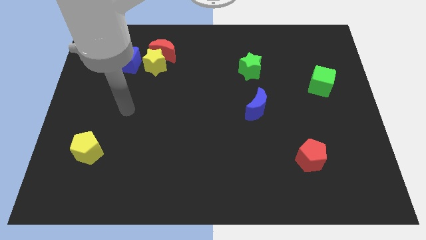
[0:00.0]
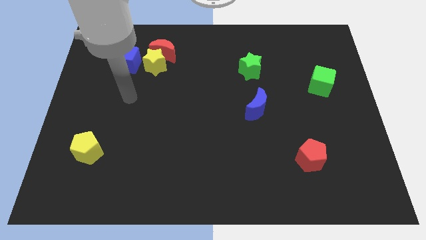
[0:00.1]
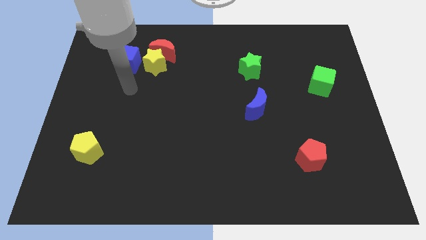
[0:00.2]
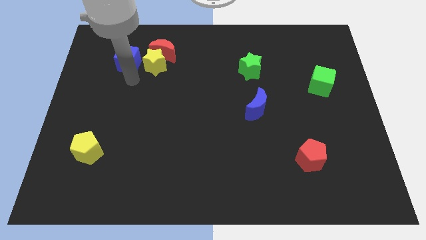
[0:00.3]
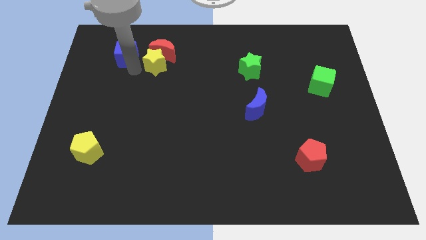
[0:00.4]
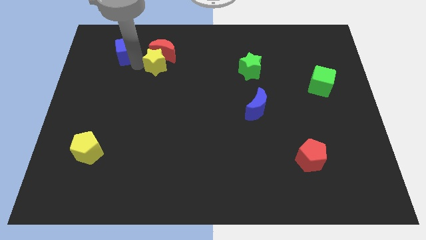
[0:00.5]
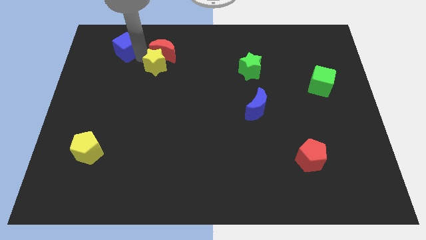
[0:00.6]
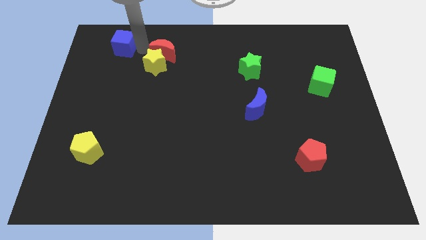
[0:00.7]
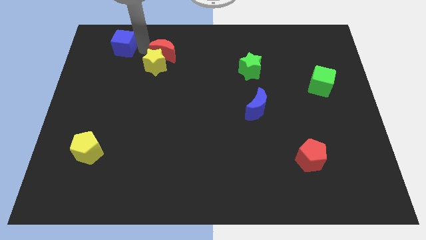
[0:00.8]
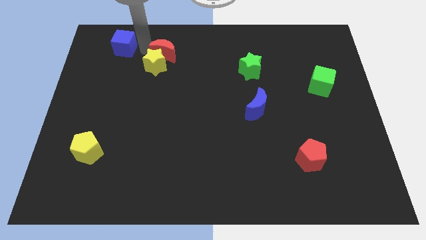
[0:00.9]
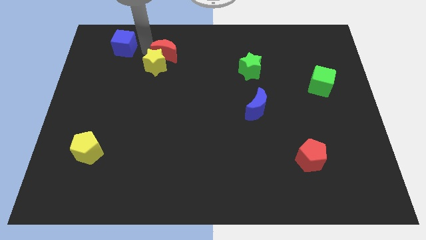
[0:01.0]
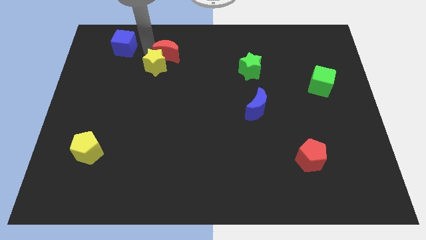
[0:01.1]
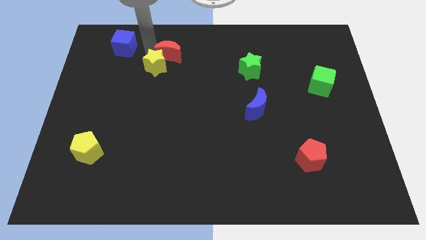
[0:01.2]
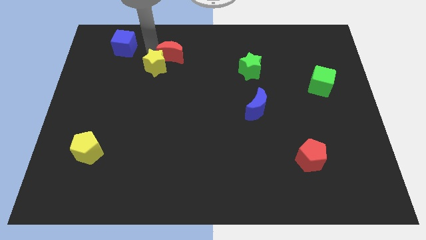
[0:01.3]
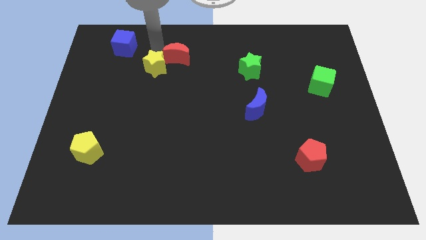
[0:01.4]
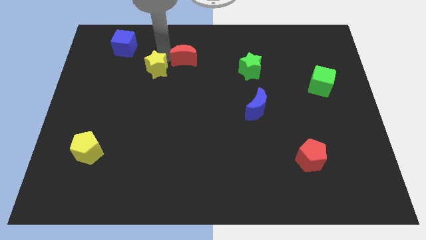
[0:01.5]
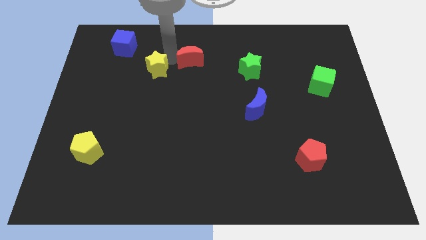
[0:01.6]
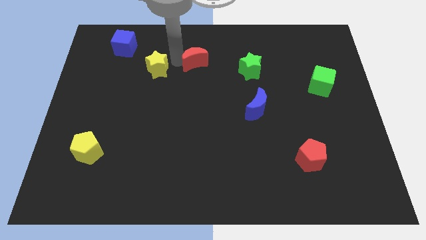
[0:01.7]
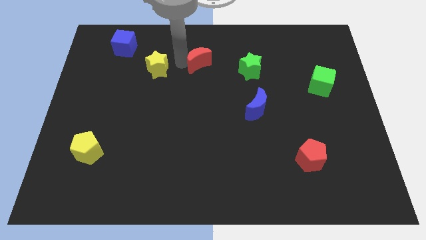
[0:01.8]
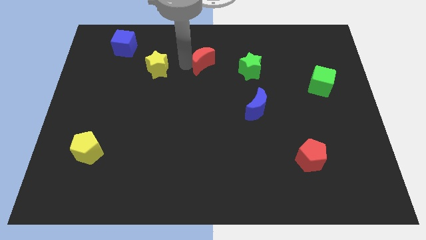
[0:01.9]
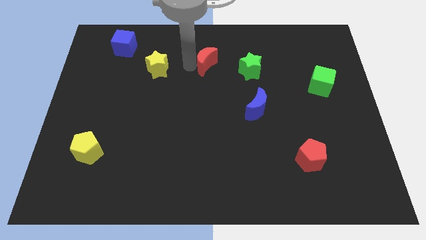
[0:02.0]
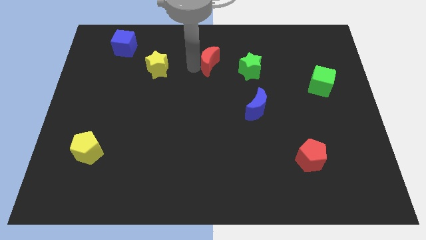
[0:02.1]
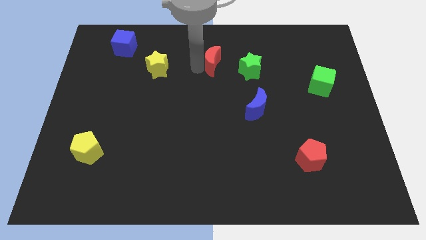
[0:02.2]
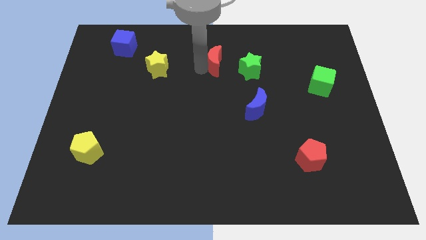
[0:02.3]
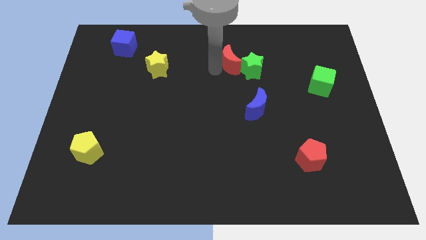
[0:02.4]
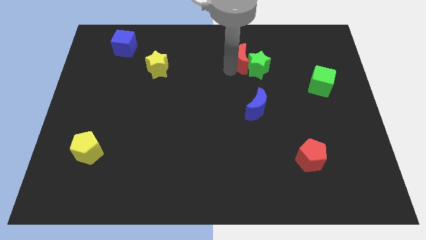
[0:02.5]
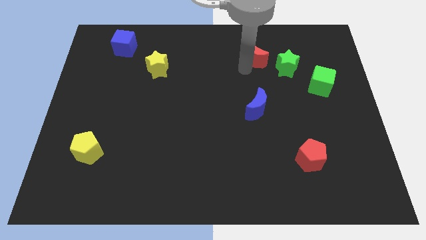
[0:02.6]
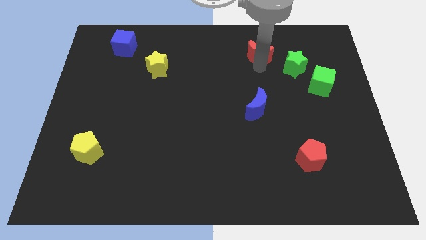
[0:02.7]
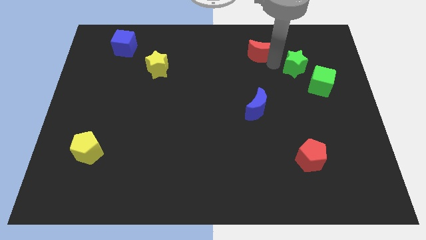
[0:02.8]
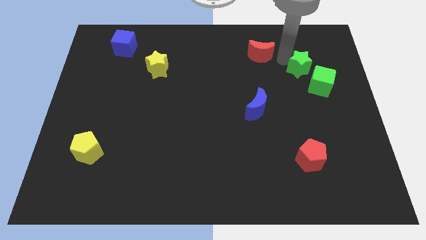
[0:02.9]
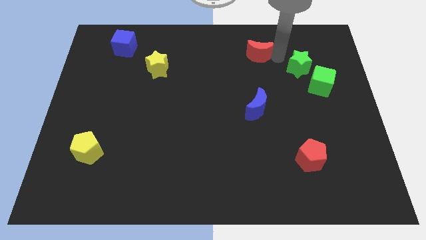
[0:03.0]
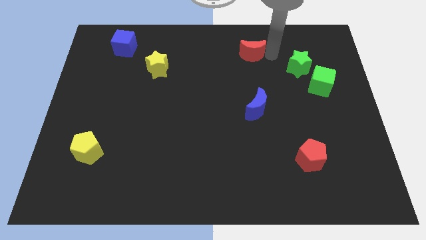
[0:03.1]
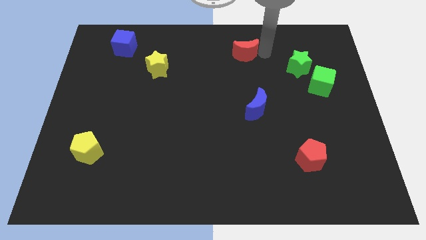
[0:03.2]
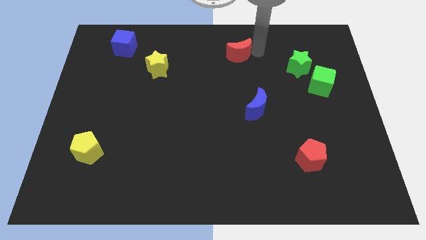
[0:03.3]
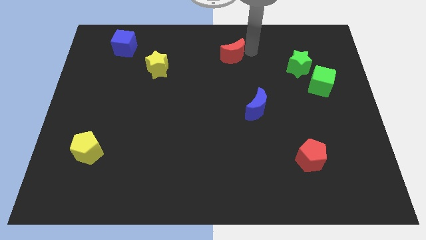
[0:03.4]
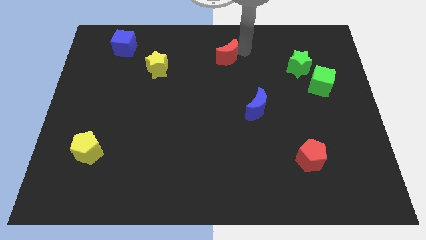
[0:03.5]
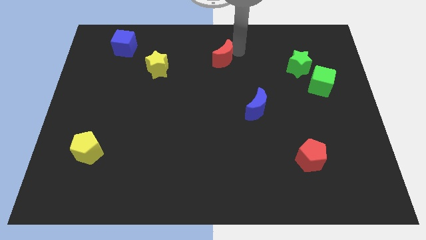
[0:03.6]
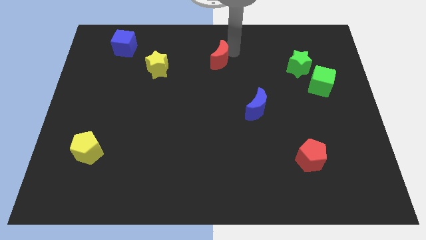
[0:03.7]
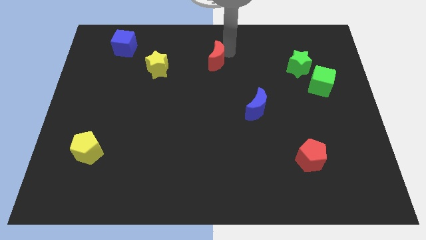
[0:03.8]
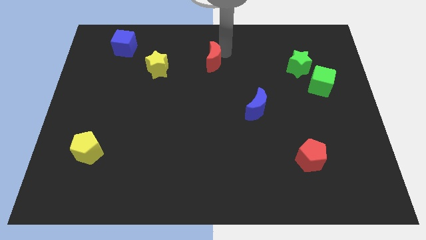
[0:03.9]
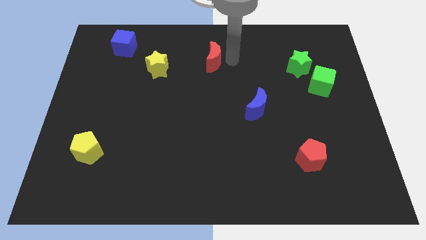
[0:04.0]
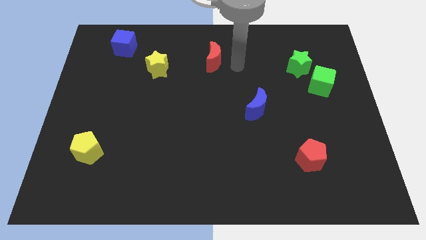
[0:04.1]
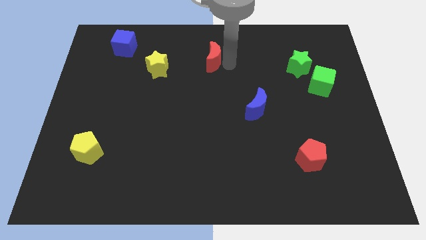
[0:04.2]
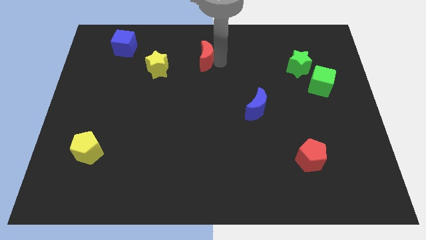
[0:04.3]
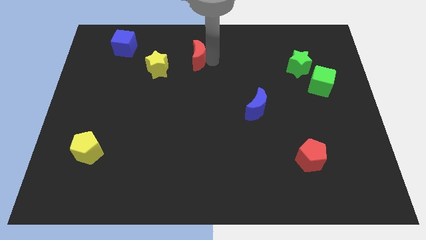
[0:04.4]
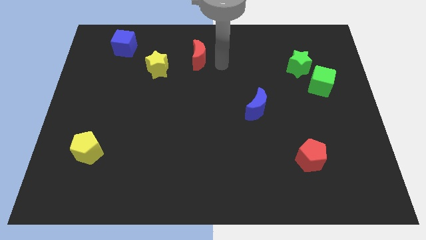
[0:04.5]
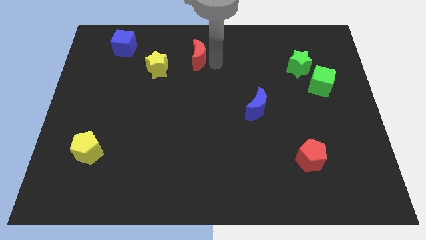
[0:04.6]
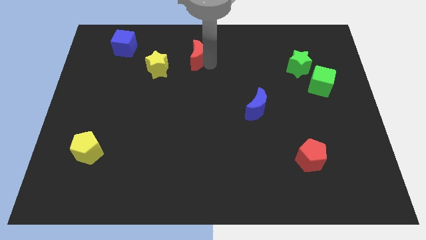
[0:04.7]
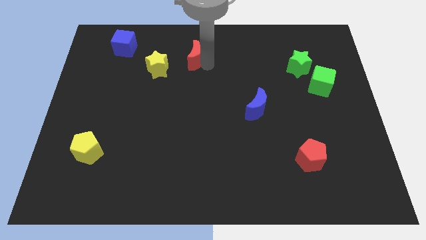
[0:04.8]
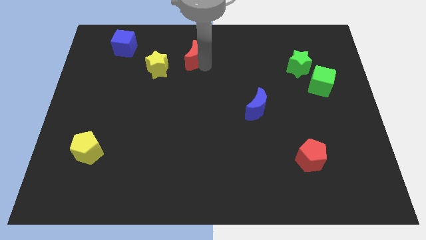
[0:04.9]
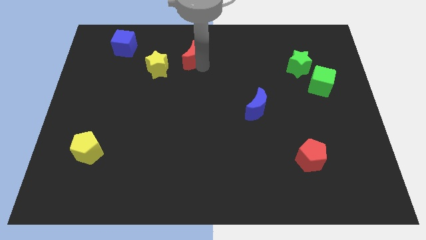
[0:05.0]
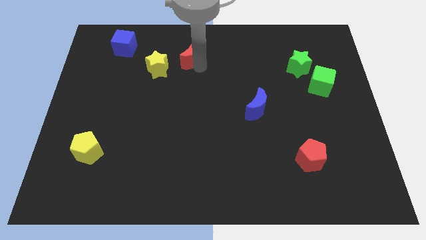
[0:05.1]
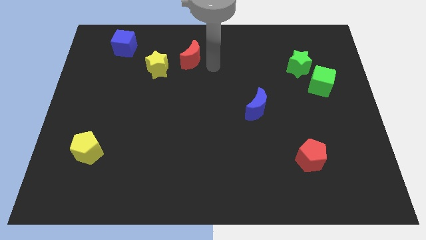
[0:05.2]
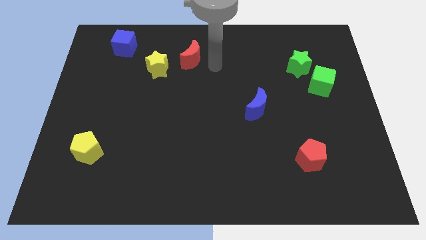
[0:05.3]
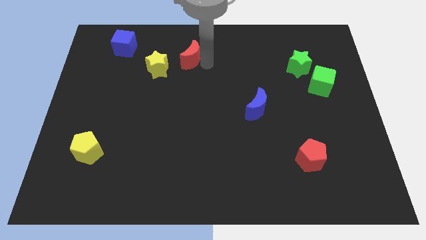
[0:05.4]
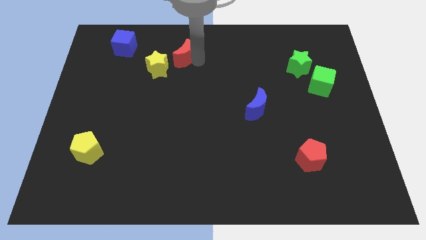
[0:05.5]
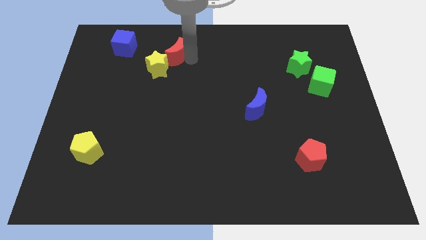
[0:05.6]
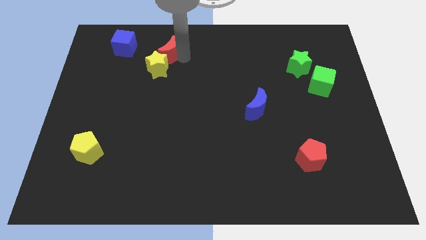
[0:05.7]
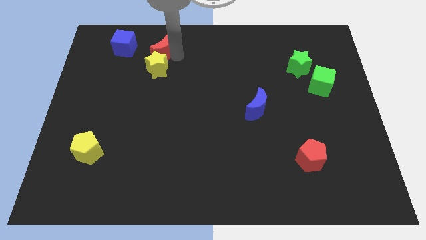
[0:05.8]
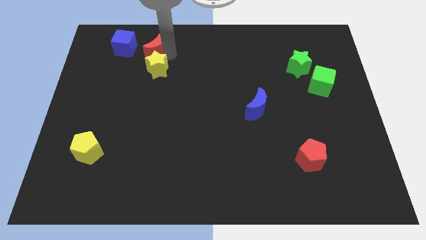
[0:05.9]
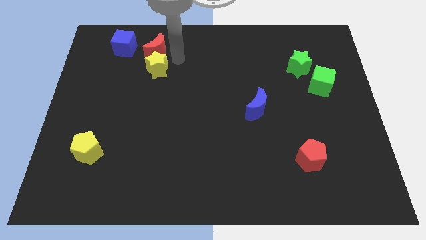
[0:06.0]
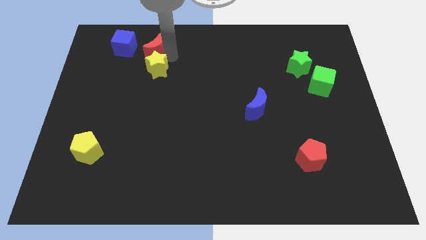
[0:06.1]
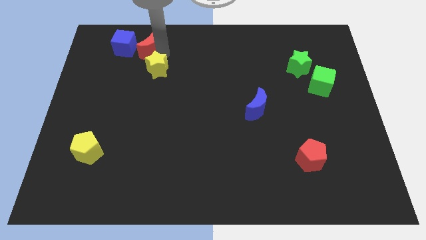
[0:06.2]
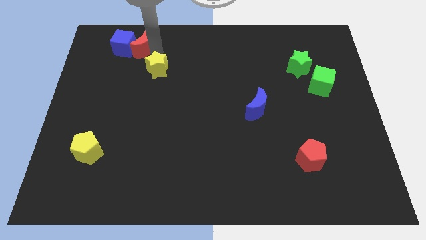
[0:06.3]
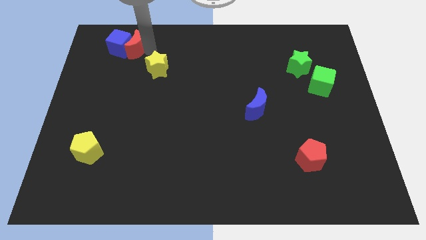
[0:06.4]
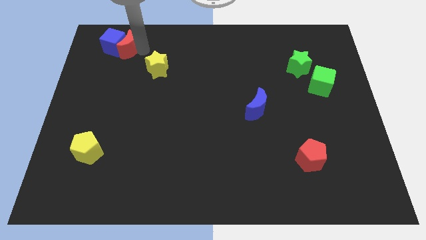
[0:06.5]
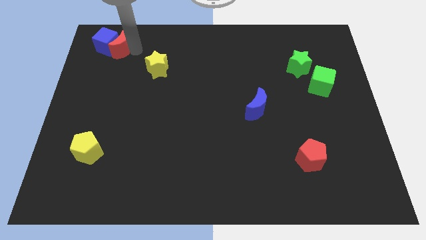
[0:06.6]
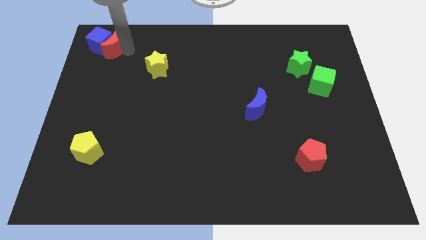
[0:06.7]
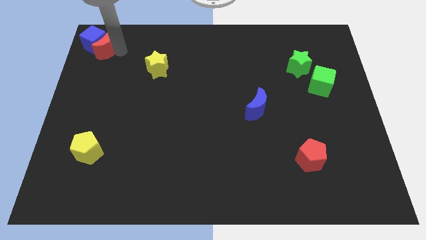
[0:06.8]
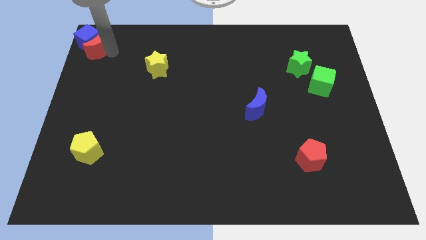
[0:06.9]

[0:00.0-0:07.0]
slide the red moon to the top left corner
